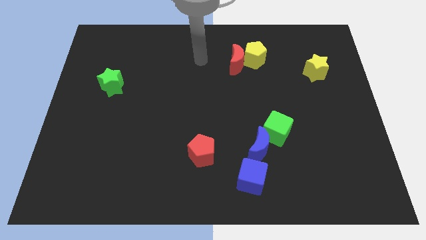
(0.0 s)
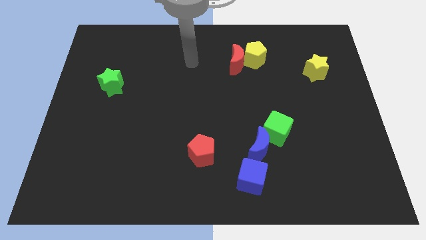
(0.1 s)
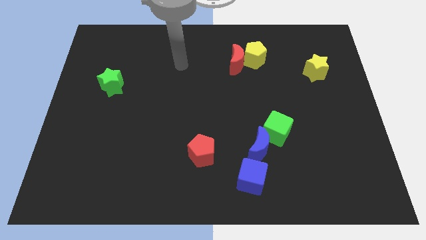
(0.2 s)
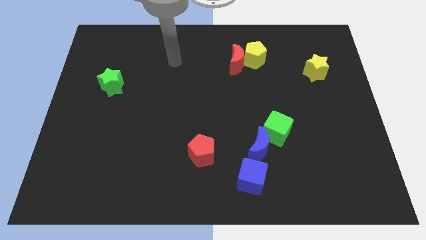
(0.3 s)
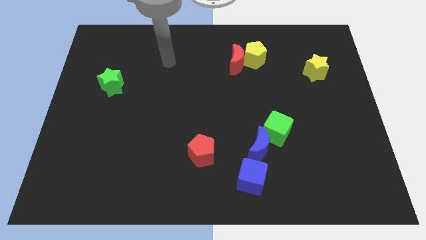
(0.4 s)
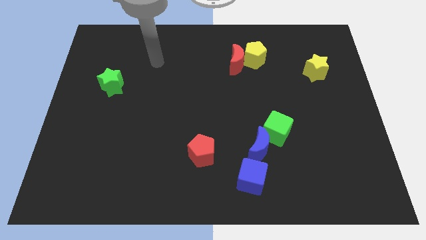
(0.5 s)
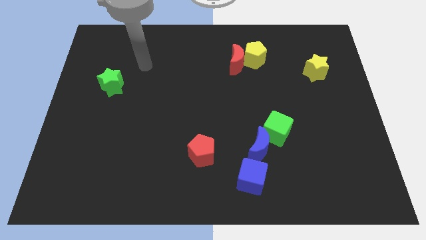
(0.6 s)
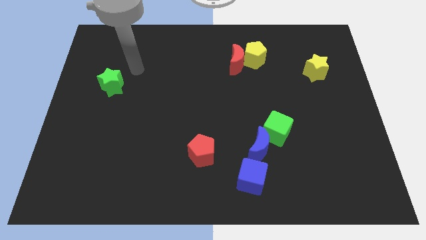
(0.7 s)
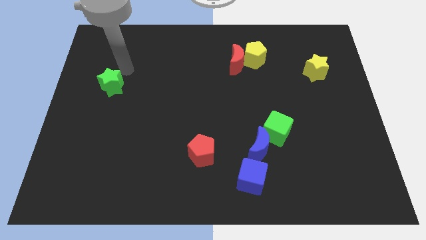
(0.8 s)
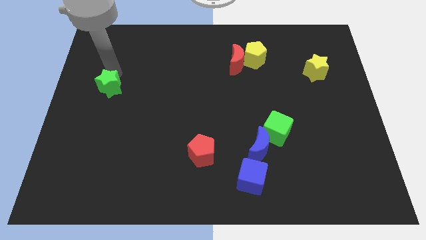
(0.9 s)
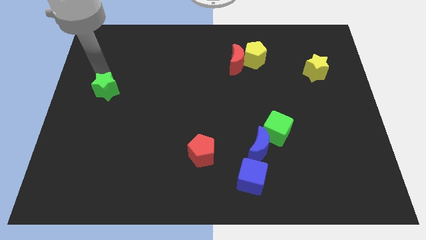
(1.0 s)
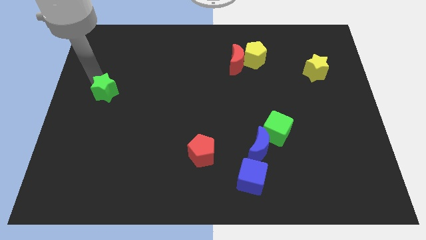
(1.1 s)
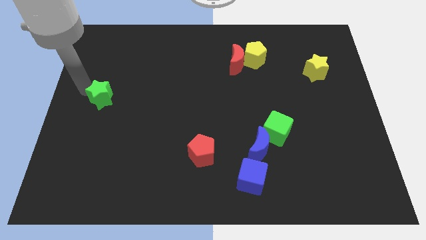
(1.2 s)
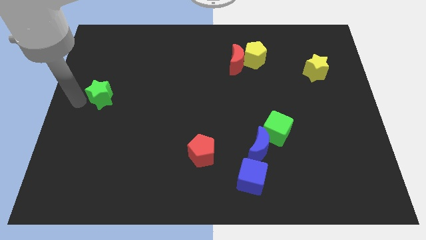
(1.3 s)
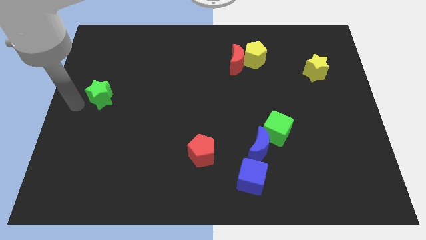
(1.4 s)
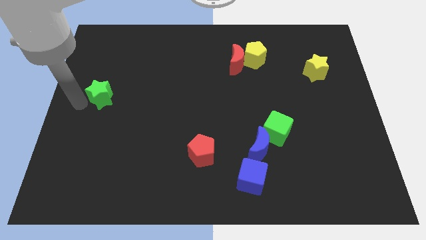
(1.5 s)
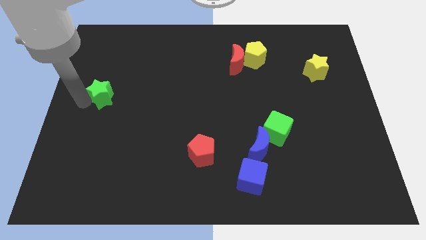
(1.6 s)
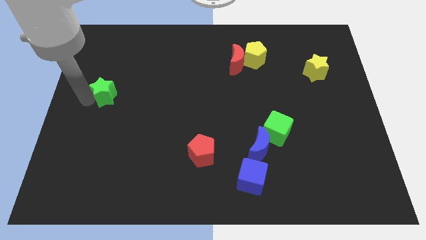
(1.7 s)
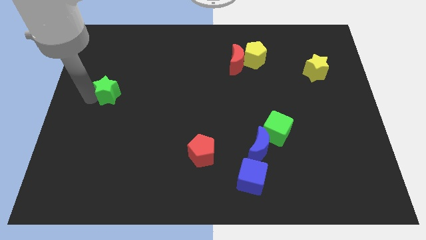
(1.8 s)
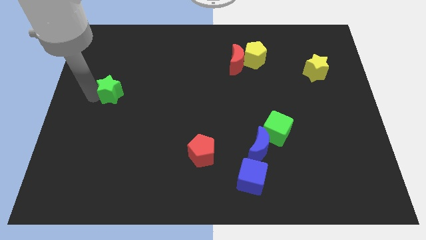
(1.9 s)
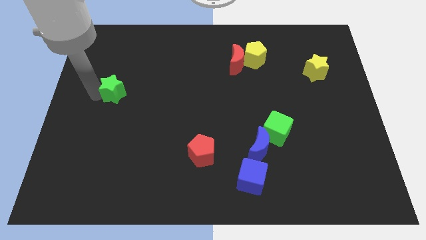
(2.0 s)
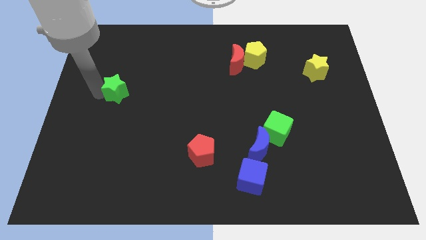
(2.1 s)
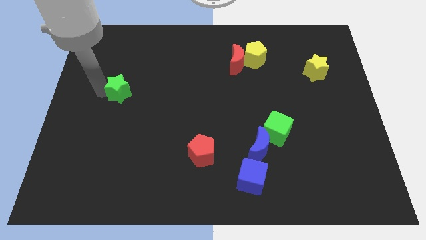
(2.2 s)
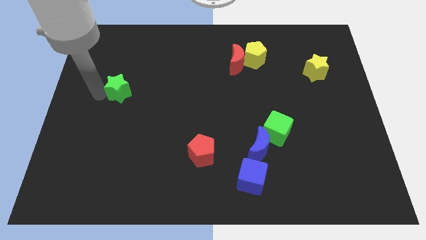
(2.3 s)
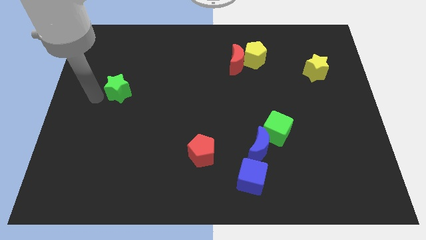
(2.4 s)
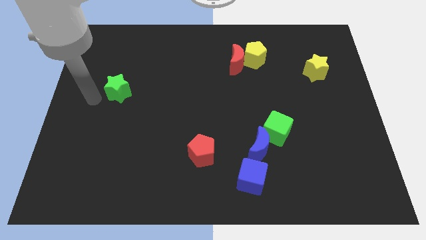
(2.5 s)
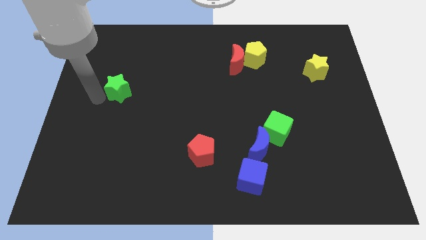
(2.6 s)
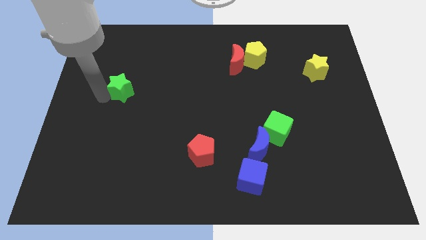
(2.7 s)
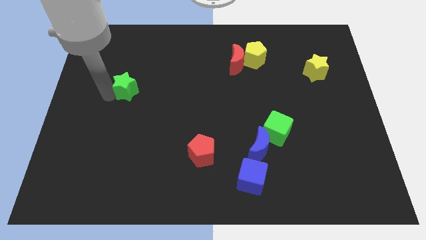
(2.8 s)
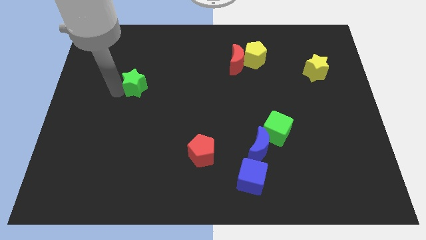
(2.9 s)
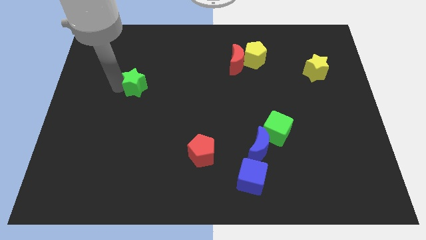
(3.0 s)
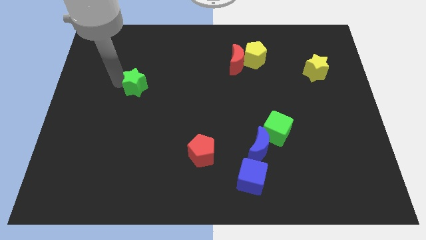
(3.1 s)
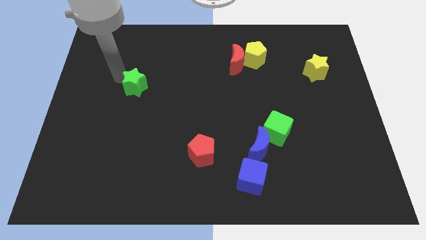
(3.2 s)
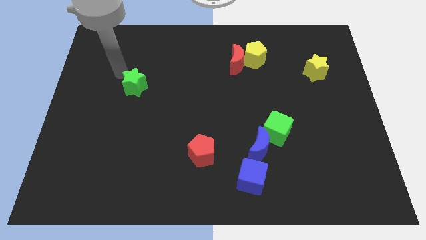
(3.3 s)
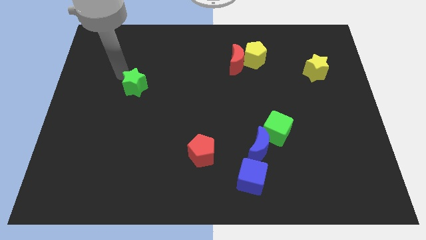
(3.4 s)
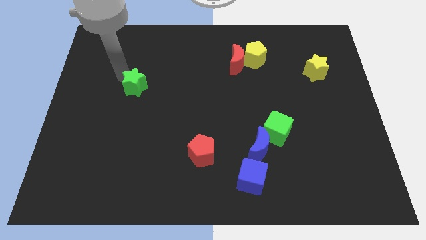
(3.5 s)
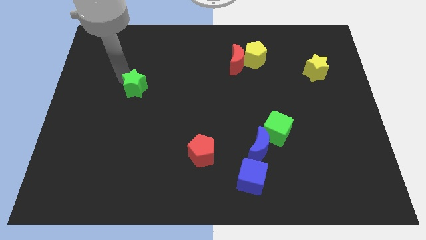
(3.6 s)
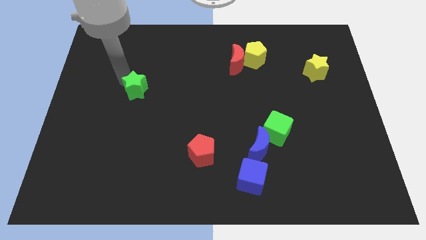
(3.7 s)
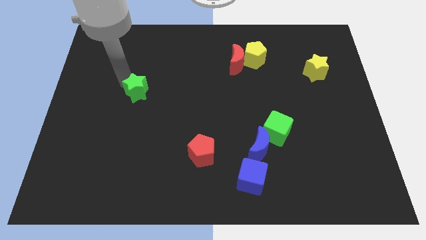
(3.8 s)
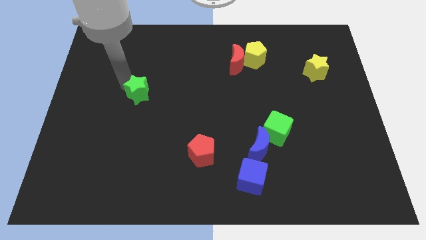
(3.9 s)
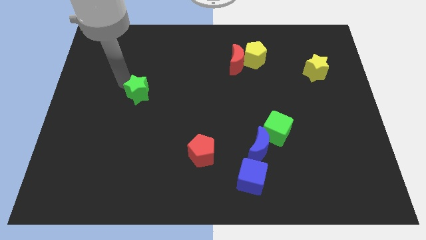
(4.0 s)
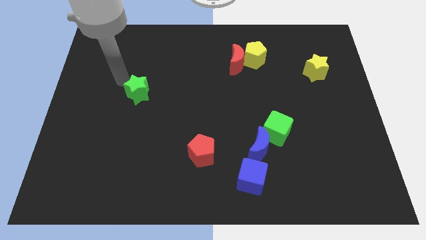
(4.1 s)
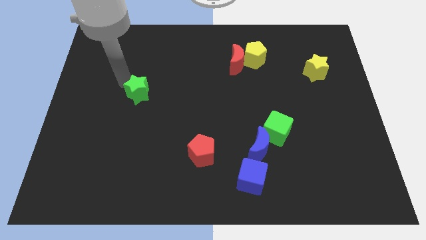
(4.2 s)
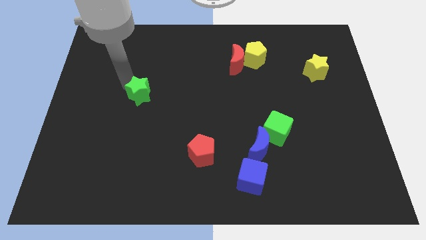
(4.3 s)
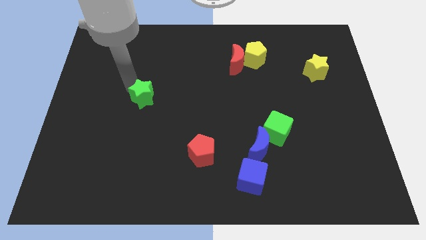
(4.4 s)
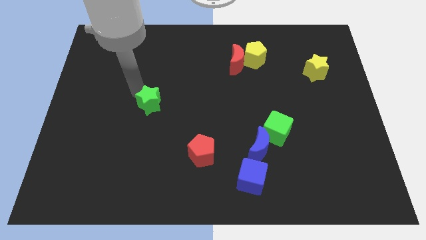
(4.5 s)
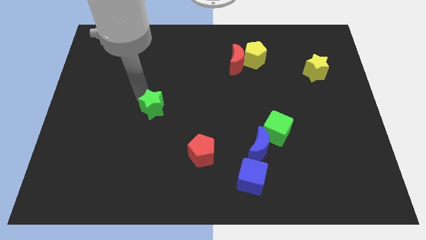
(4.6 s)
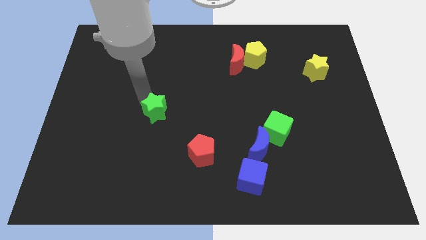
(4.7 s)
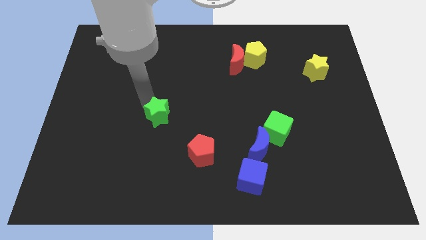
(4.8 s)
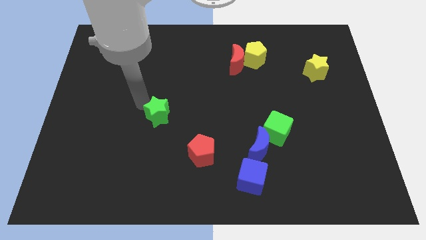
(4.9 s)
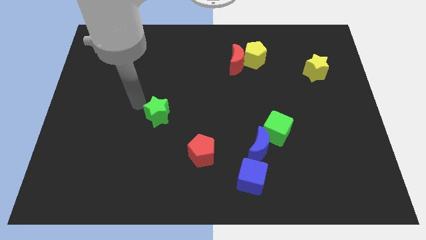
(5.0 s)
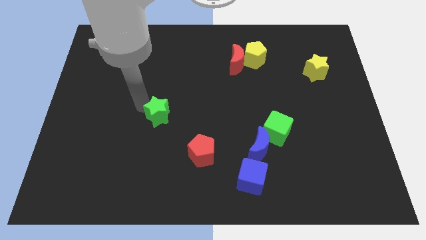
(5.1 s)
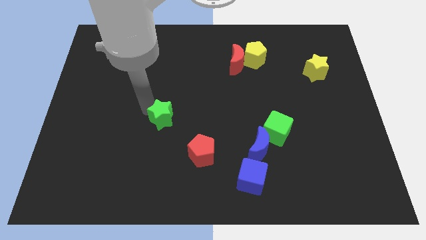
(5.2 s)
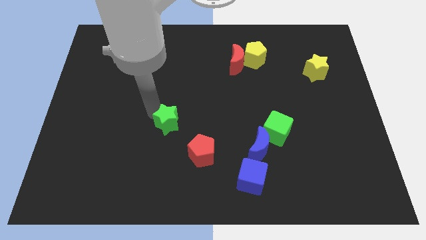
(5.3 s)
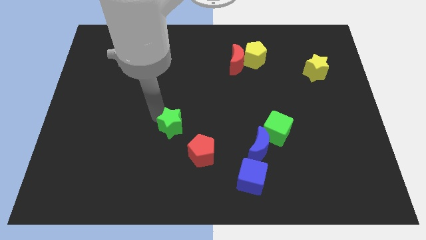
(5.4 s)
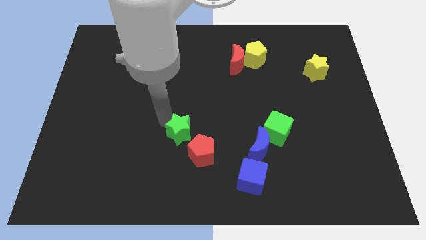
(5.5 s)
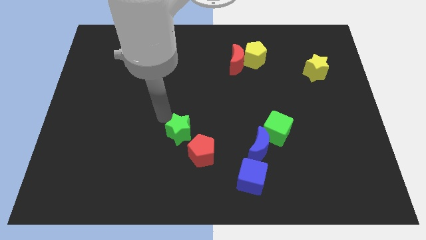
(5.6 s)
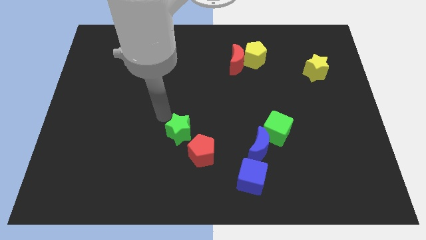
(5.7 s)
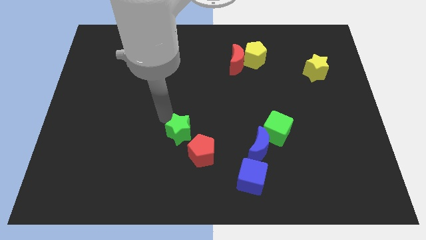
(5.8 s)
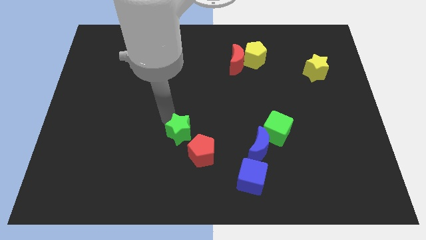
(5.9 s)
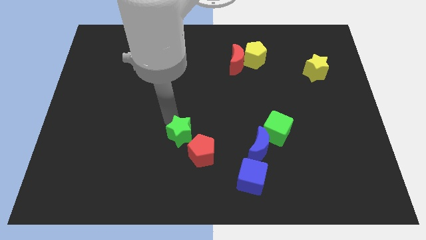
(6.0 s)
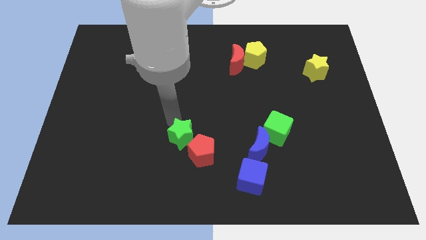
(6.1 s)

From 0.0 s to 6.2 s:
push the green star to the red pentagon

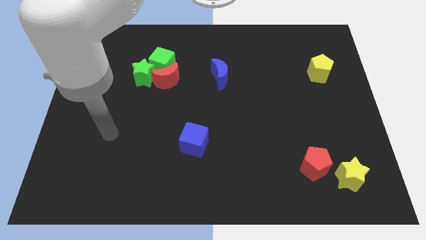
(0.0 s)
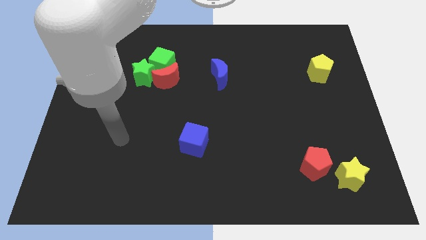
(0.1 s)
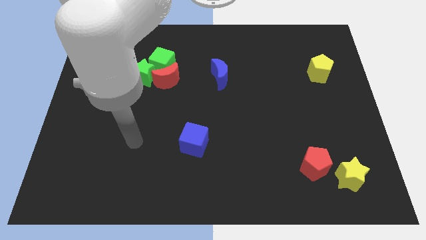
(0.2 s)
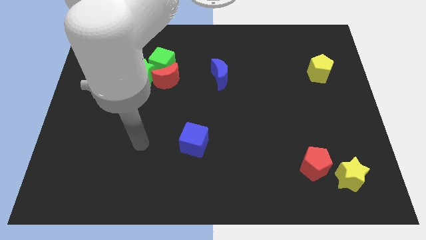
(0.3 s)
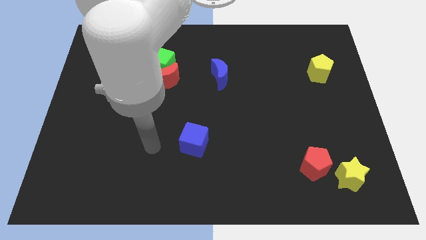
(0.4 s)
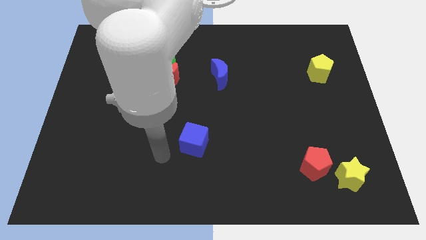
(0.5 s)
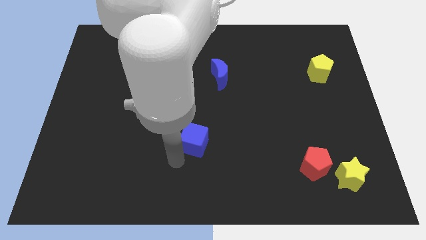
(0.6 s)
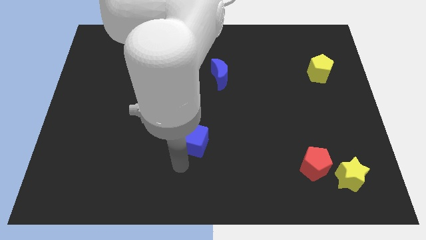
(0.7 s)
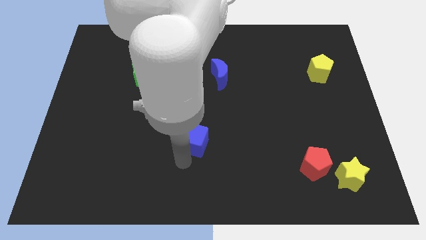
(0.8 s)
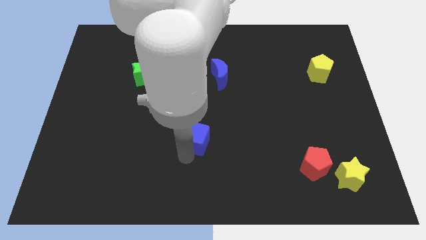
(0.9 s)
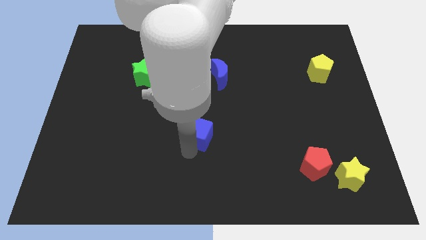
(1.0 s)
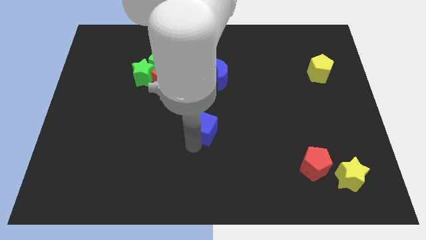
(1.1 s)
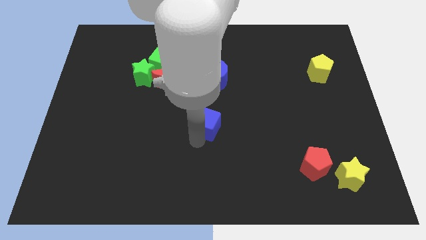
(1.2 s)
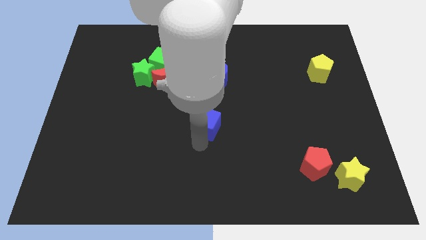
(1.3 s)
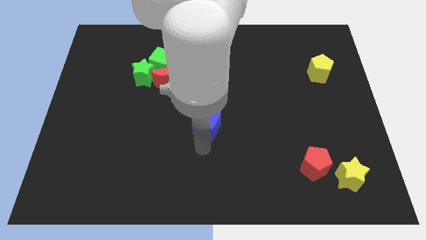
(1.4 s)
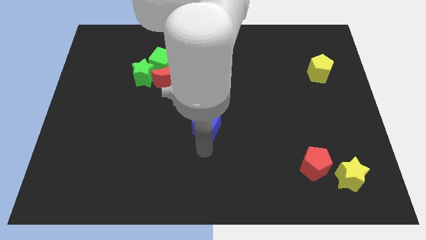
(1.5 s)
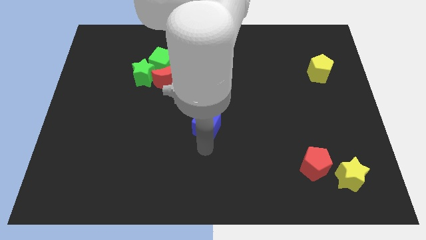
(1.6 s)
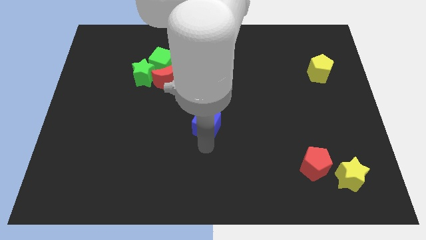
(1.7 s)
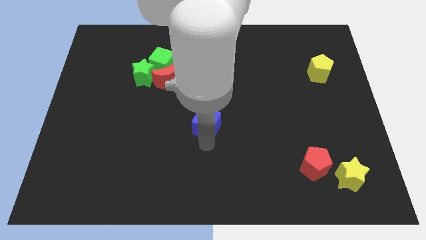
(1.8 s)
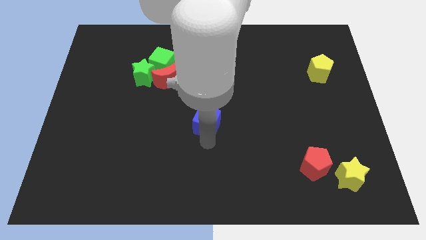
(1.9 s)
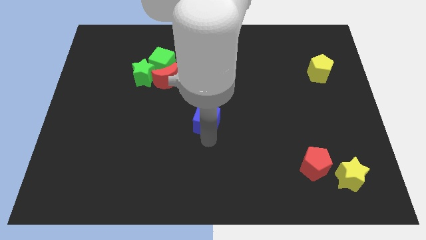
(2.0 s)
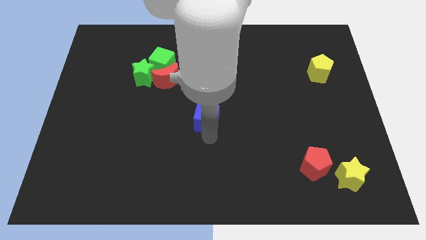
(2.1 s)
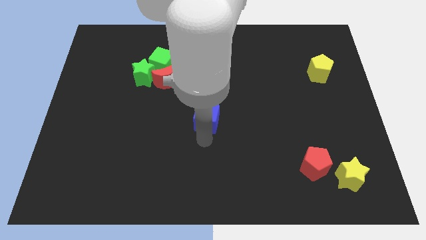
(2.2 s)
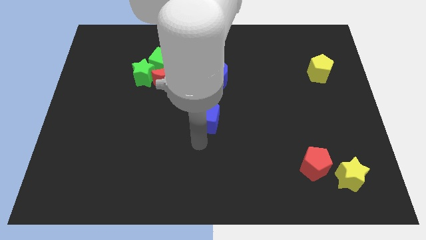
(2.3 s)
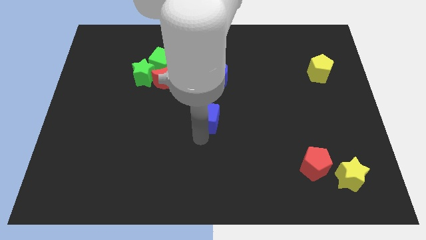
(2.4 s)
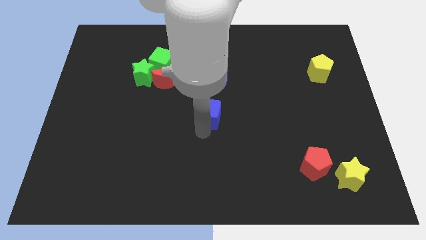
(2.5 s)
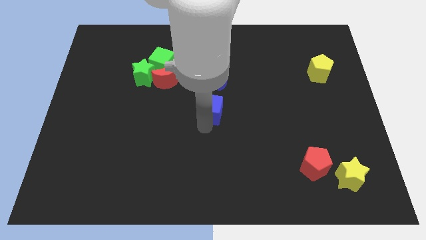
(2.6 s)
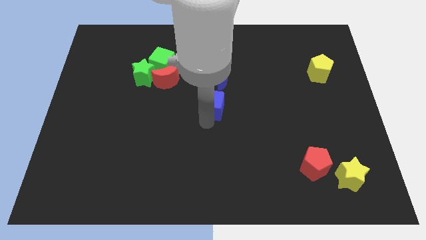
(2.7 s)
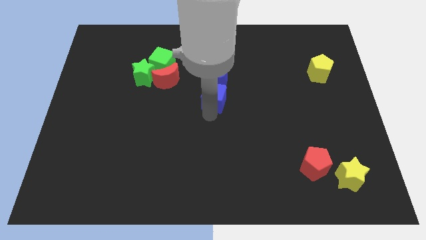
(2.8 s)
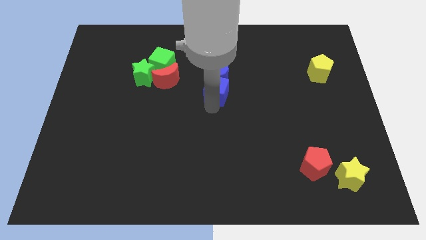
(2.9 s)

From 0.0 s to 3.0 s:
push the blue cube next to the blue moon
